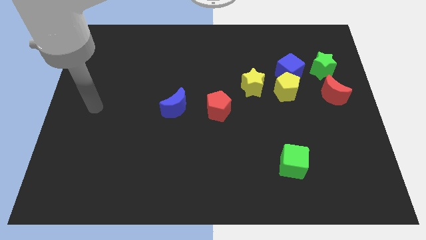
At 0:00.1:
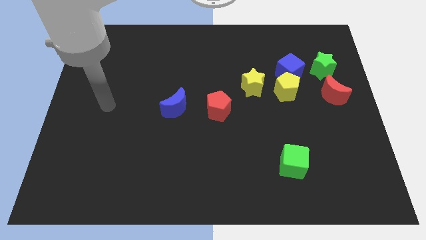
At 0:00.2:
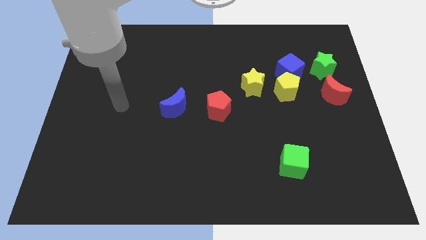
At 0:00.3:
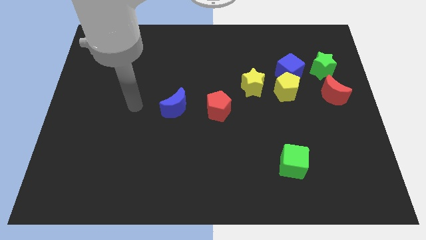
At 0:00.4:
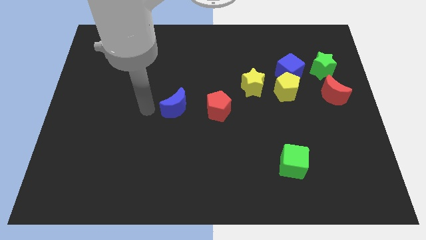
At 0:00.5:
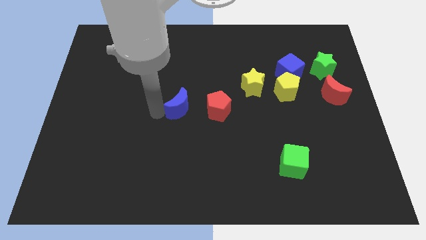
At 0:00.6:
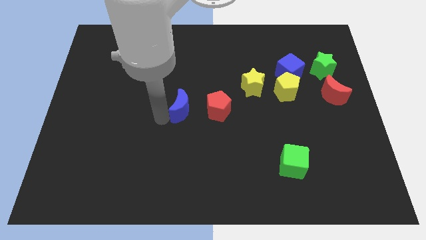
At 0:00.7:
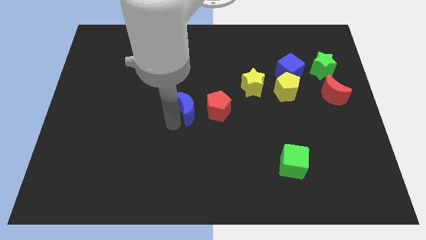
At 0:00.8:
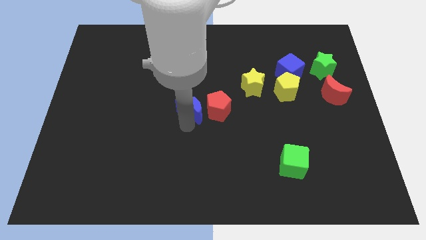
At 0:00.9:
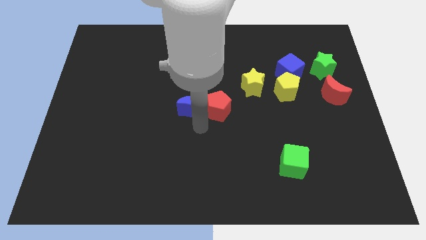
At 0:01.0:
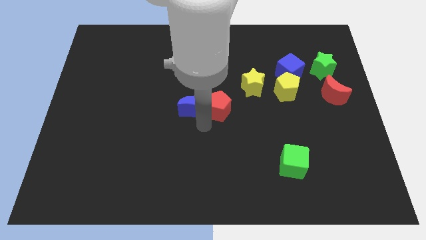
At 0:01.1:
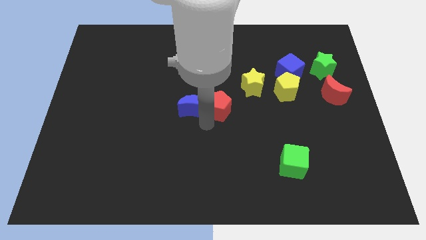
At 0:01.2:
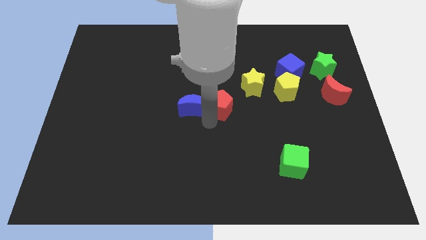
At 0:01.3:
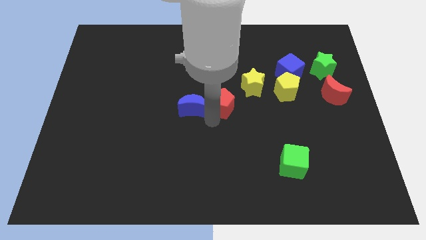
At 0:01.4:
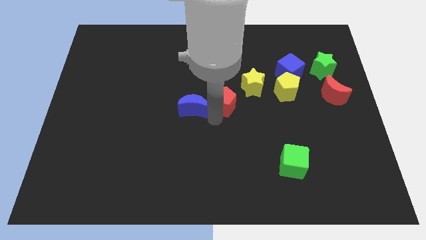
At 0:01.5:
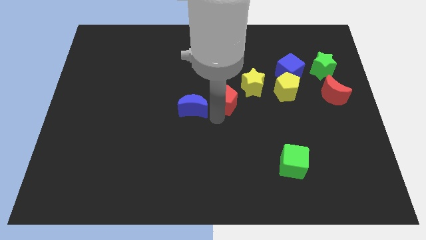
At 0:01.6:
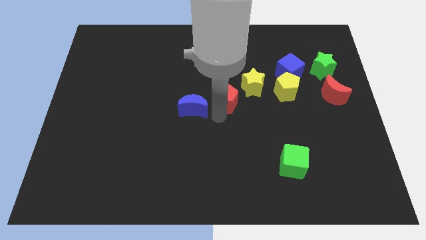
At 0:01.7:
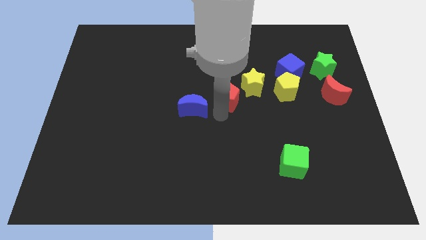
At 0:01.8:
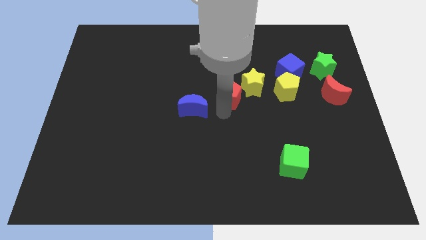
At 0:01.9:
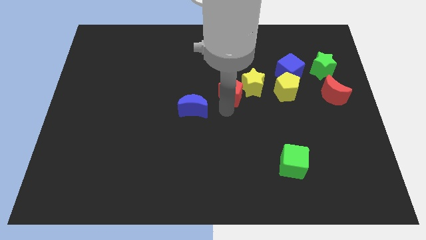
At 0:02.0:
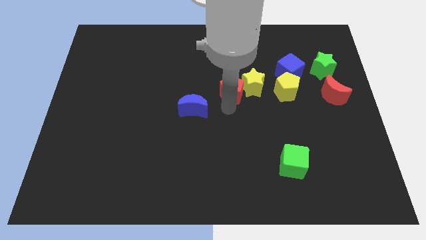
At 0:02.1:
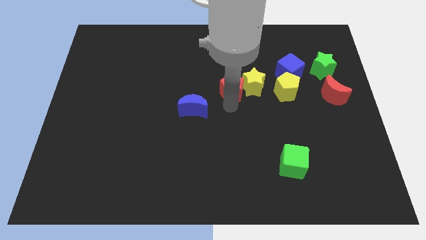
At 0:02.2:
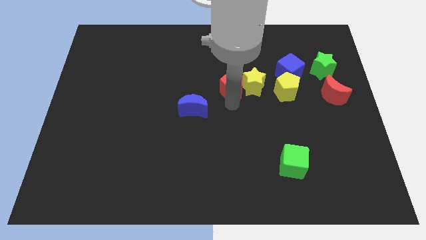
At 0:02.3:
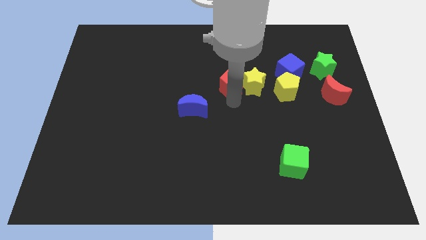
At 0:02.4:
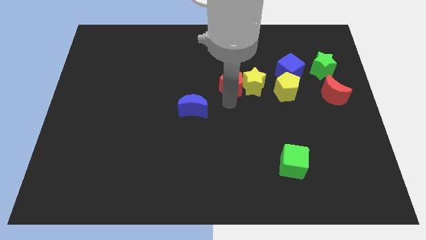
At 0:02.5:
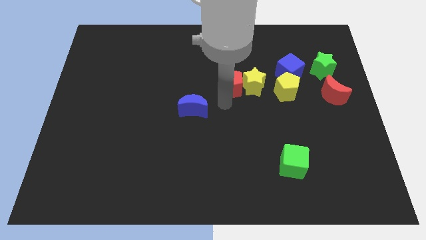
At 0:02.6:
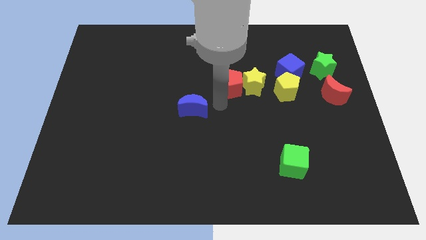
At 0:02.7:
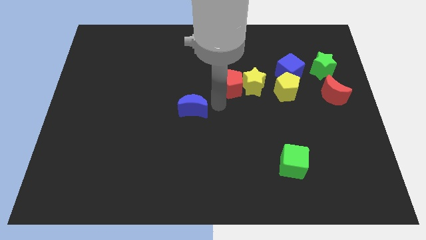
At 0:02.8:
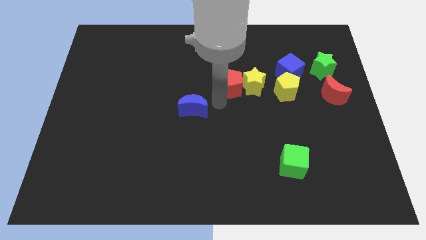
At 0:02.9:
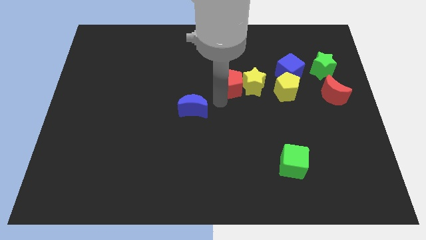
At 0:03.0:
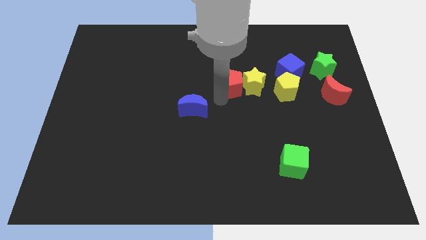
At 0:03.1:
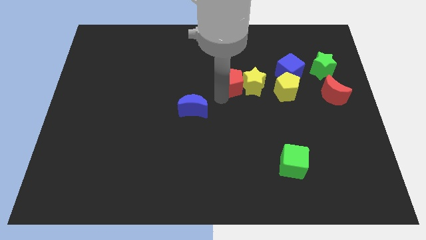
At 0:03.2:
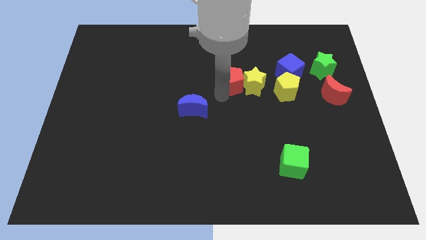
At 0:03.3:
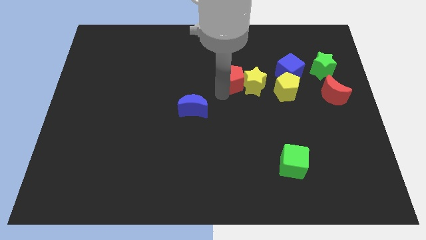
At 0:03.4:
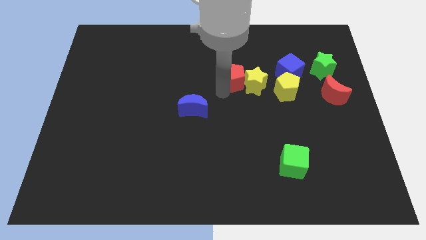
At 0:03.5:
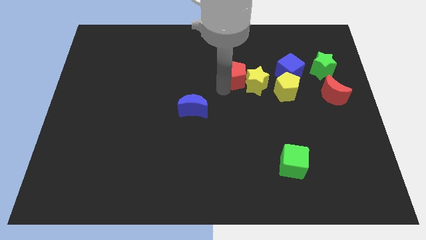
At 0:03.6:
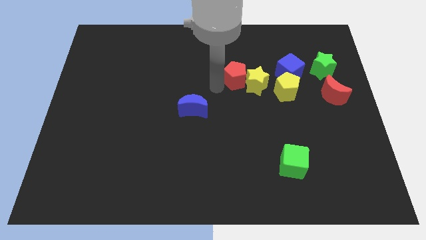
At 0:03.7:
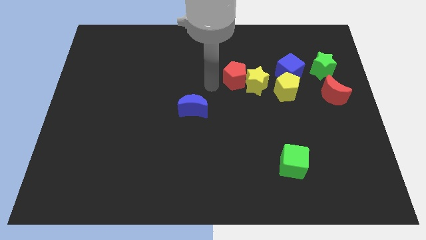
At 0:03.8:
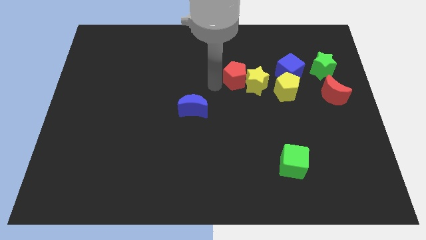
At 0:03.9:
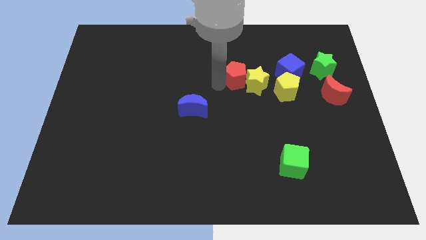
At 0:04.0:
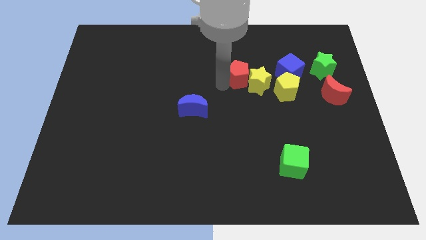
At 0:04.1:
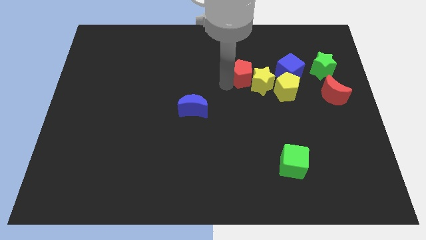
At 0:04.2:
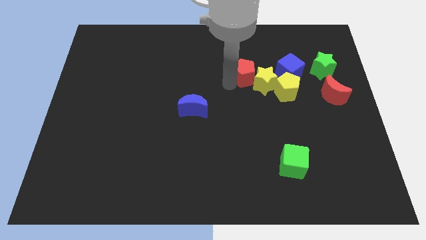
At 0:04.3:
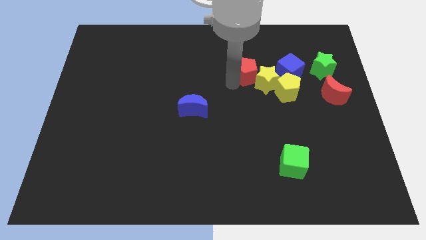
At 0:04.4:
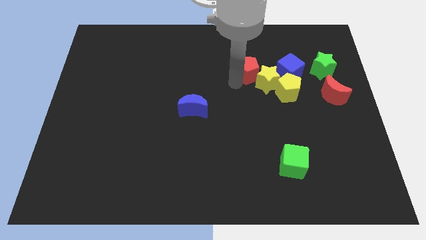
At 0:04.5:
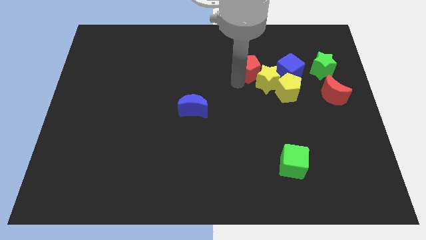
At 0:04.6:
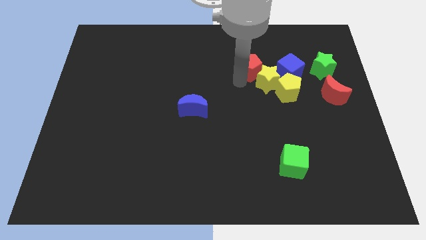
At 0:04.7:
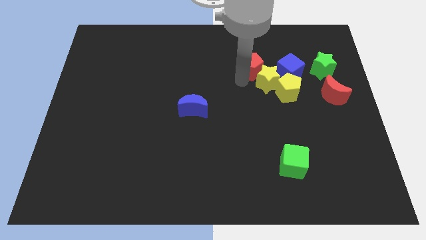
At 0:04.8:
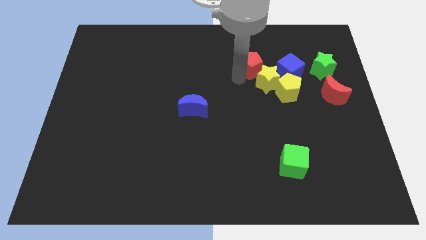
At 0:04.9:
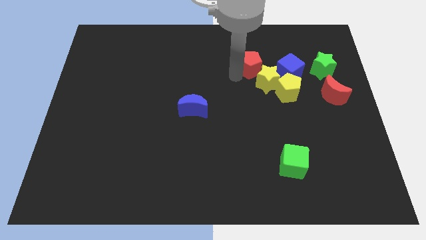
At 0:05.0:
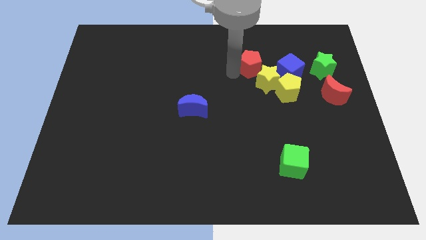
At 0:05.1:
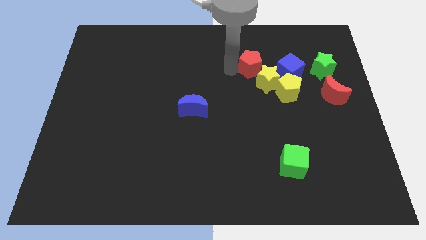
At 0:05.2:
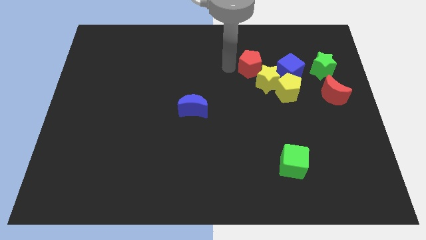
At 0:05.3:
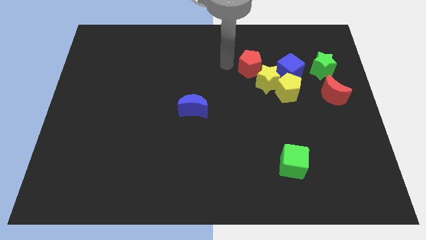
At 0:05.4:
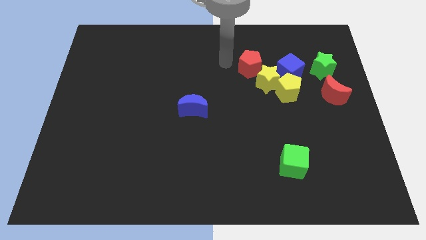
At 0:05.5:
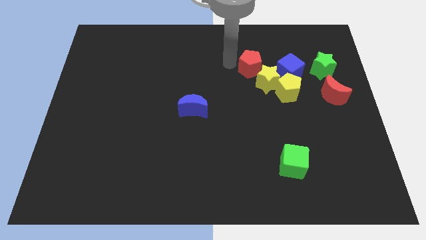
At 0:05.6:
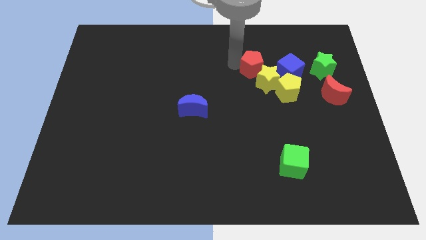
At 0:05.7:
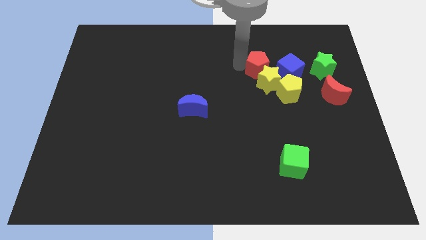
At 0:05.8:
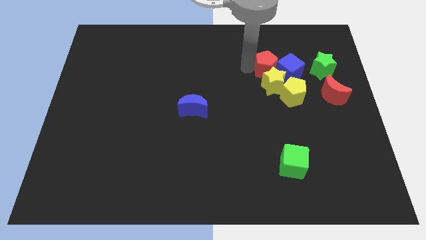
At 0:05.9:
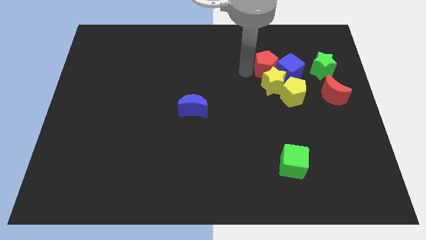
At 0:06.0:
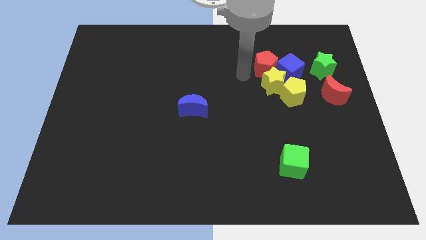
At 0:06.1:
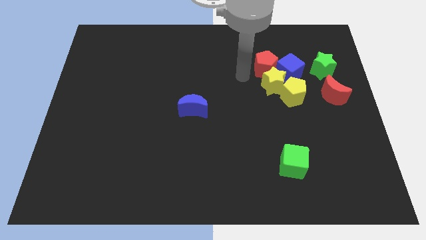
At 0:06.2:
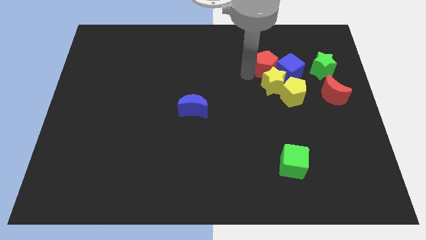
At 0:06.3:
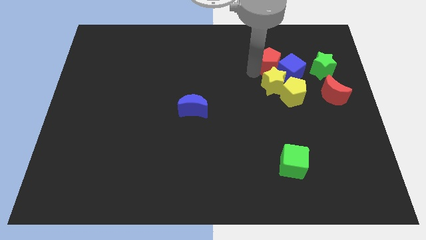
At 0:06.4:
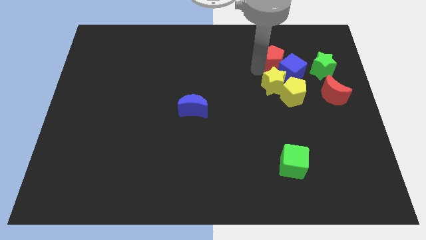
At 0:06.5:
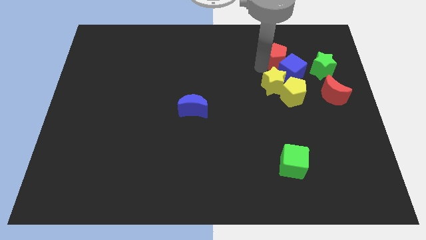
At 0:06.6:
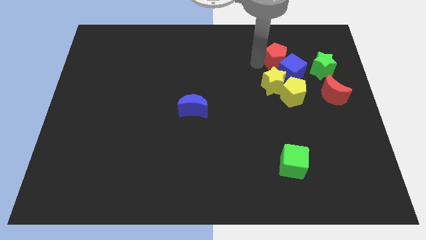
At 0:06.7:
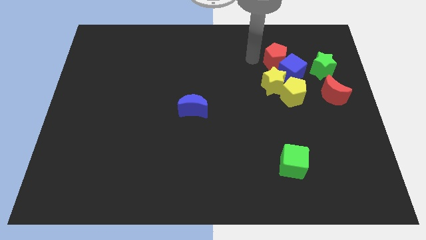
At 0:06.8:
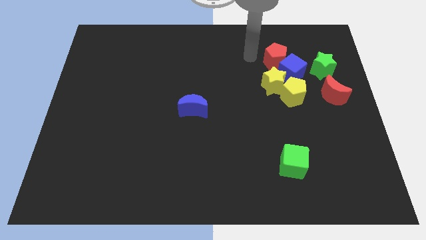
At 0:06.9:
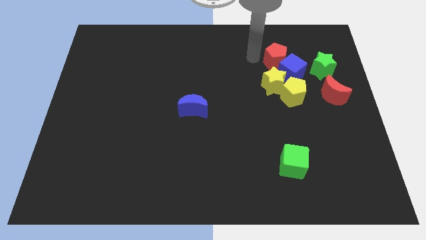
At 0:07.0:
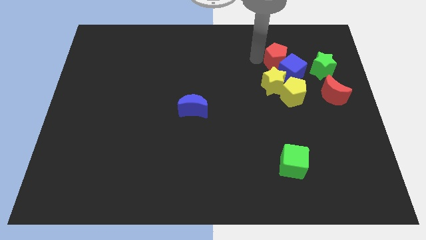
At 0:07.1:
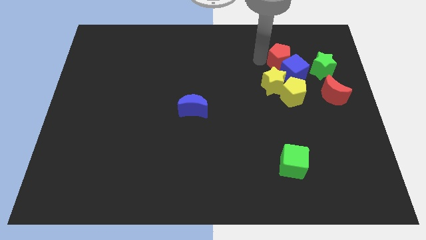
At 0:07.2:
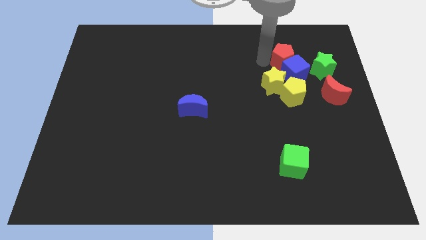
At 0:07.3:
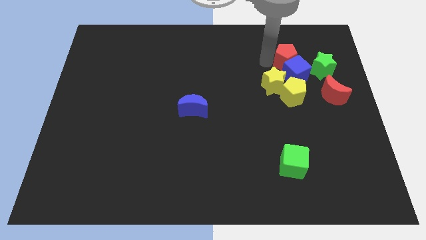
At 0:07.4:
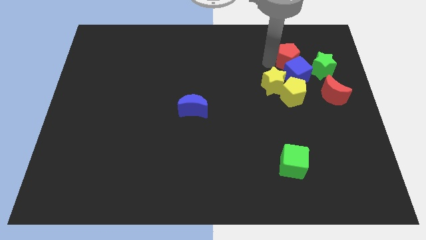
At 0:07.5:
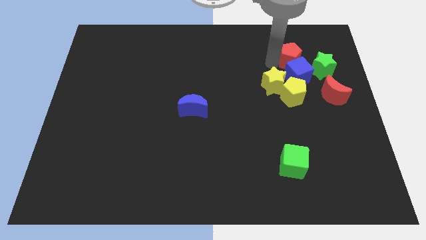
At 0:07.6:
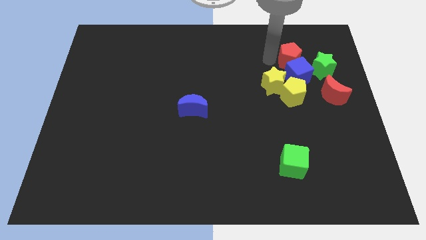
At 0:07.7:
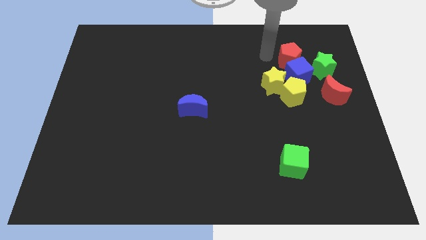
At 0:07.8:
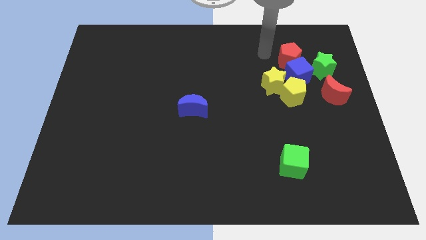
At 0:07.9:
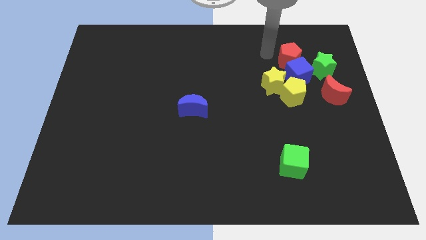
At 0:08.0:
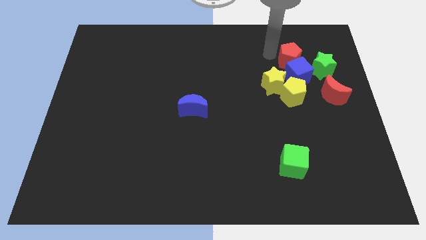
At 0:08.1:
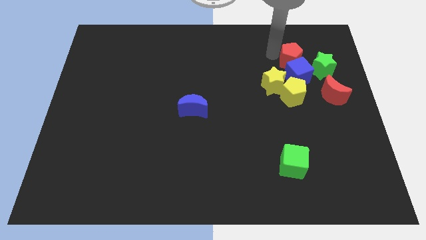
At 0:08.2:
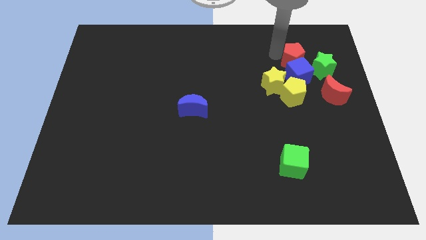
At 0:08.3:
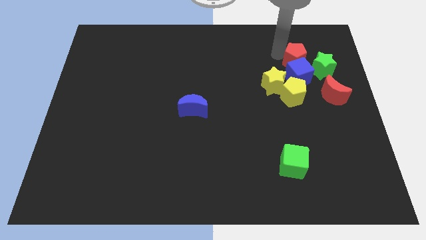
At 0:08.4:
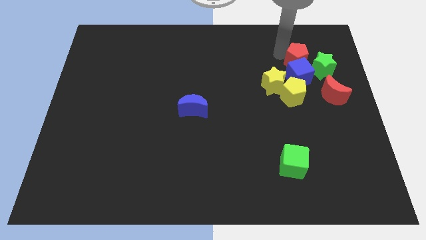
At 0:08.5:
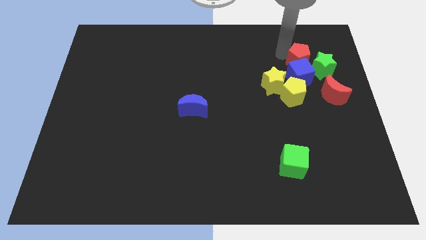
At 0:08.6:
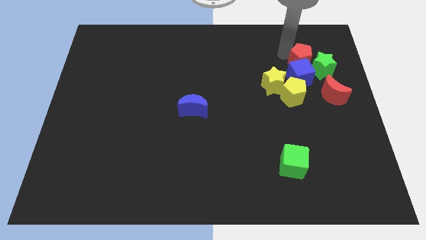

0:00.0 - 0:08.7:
slide the red pentagon towards the green star
